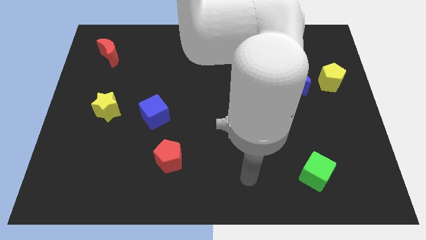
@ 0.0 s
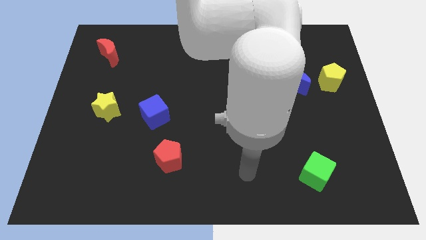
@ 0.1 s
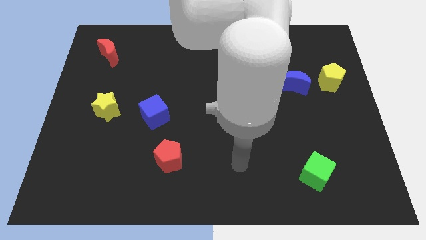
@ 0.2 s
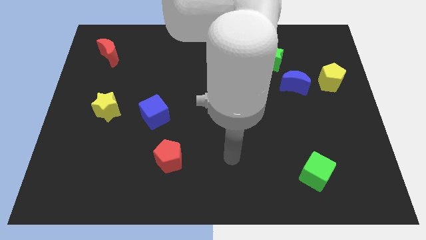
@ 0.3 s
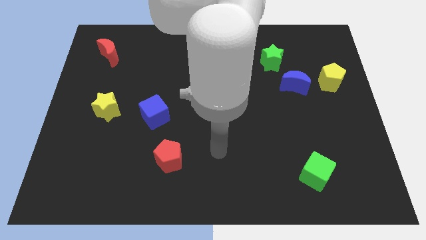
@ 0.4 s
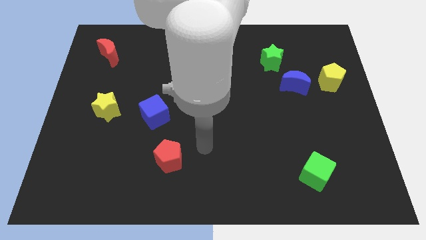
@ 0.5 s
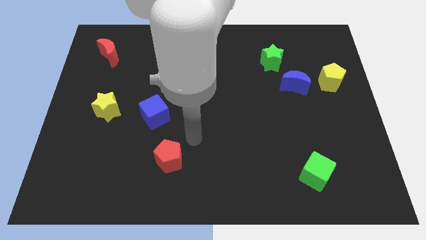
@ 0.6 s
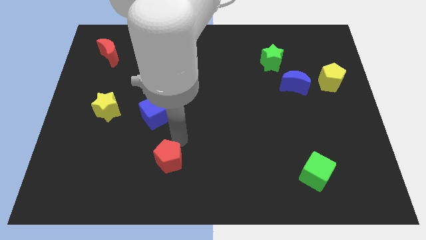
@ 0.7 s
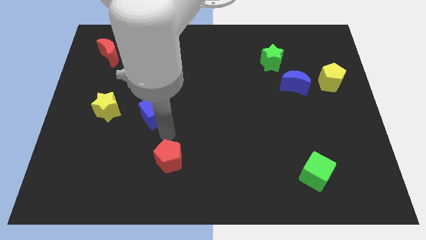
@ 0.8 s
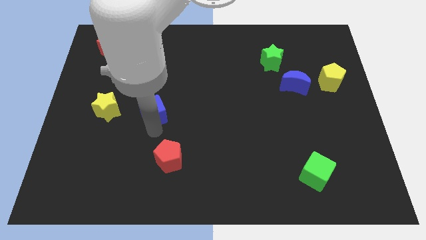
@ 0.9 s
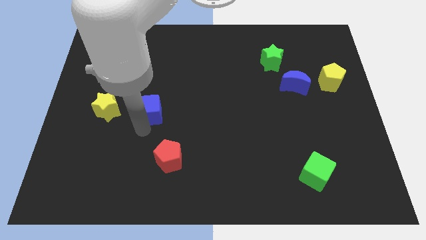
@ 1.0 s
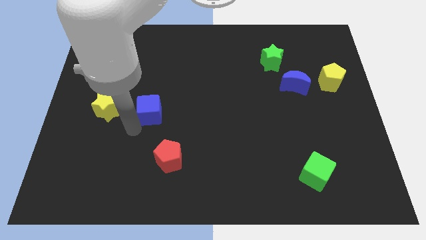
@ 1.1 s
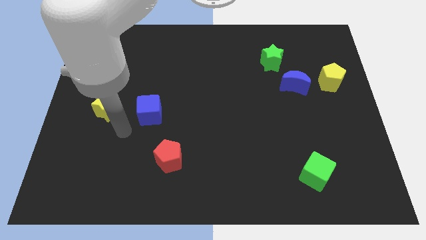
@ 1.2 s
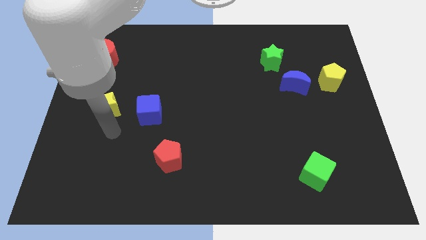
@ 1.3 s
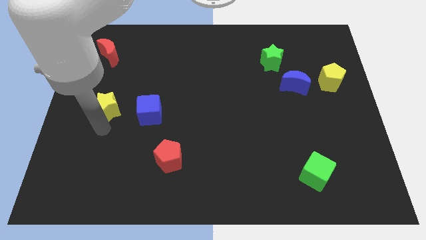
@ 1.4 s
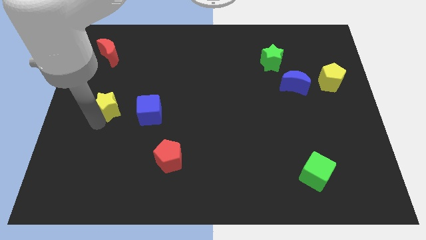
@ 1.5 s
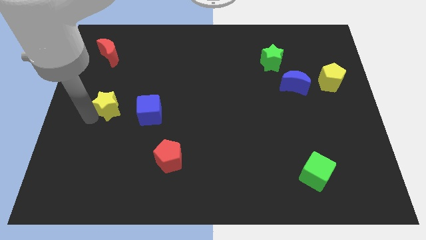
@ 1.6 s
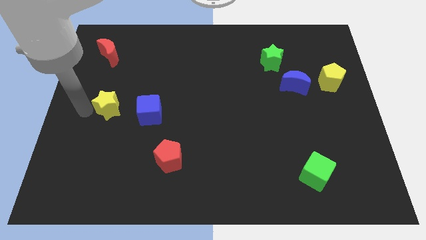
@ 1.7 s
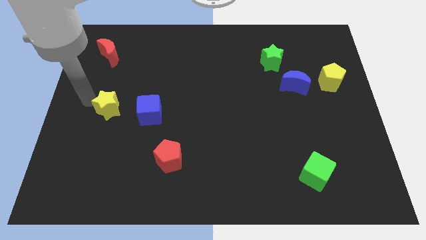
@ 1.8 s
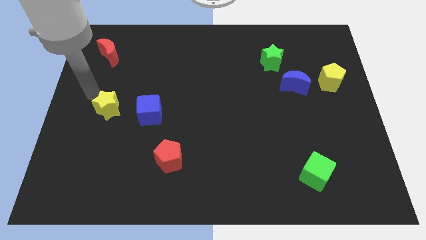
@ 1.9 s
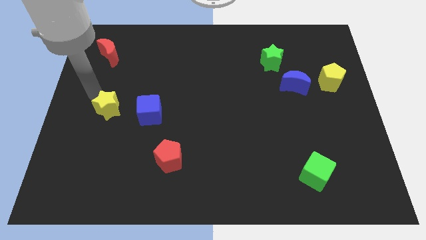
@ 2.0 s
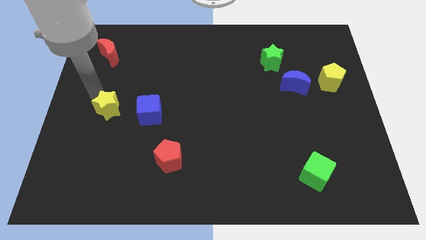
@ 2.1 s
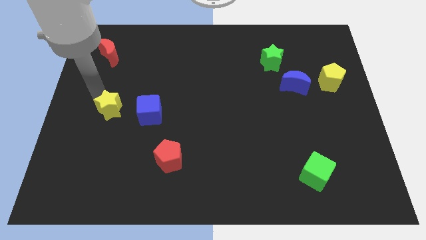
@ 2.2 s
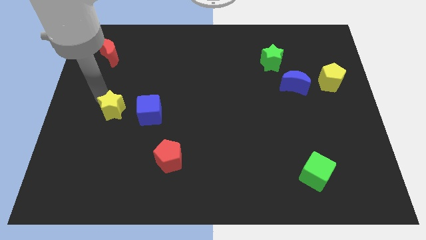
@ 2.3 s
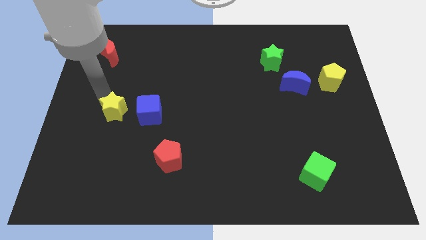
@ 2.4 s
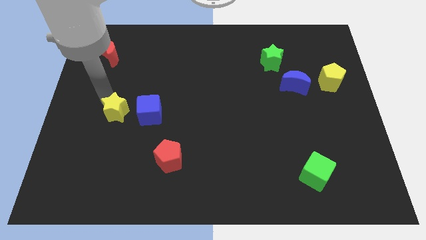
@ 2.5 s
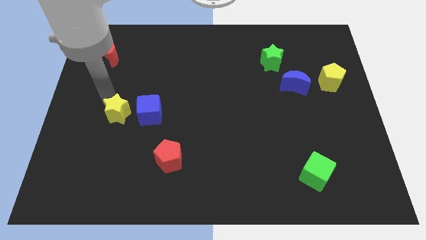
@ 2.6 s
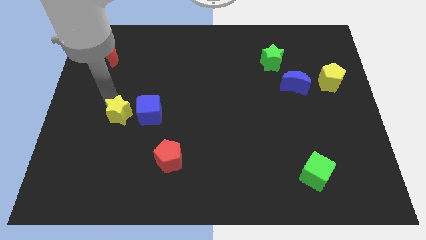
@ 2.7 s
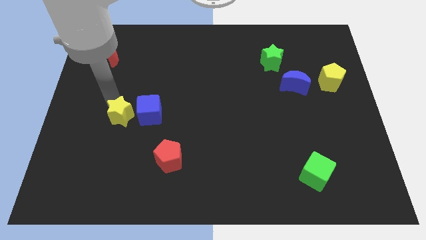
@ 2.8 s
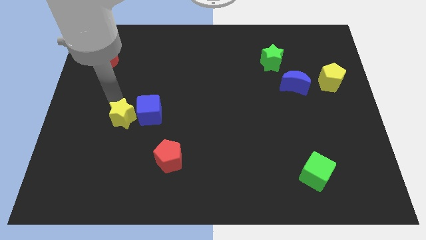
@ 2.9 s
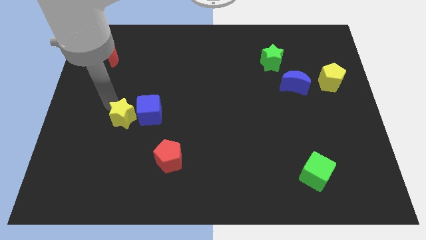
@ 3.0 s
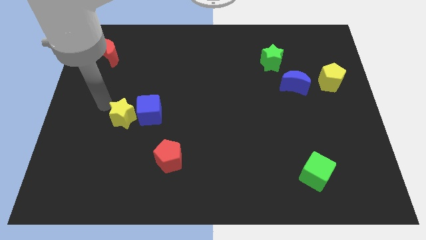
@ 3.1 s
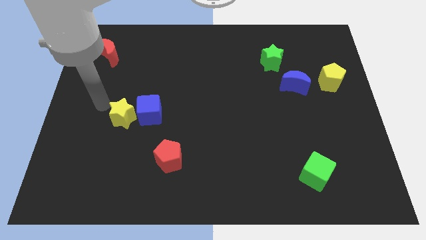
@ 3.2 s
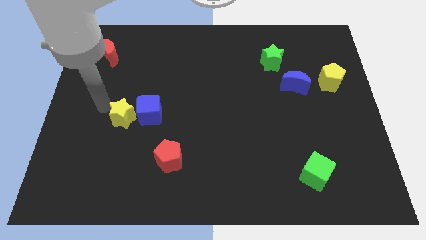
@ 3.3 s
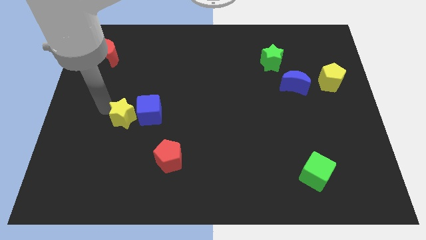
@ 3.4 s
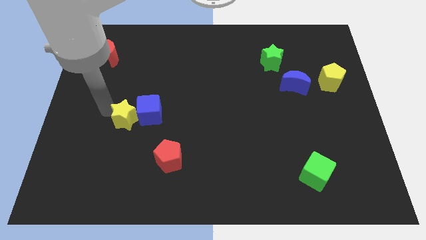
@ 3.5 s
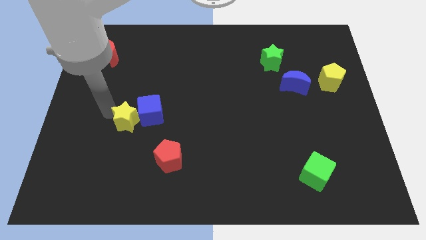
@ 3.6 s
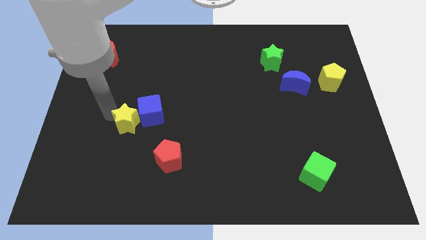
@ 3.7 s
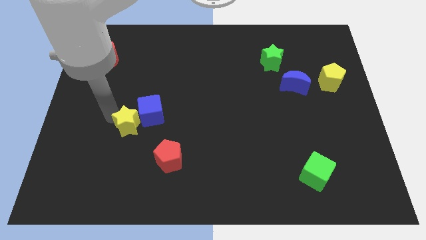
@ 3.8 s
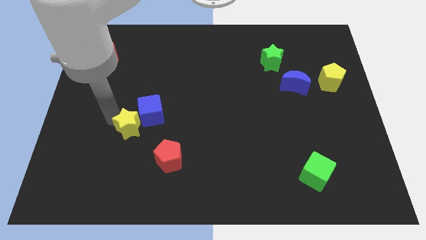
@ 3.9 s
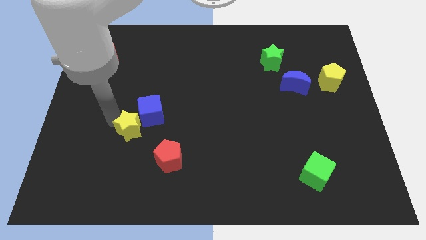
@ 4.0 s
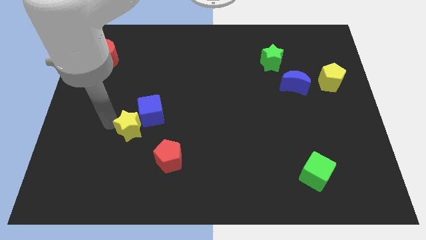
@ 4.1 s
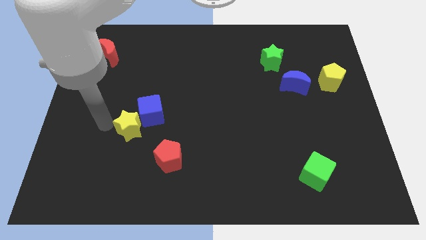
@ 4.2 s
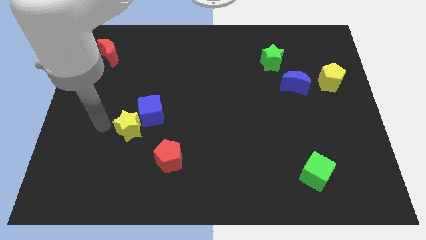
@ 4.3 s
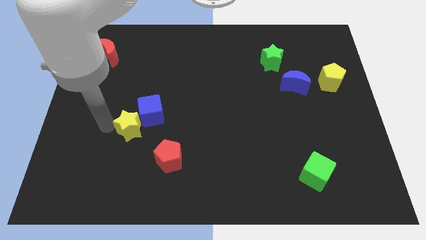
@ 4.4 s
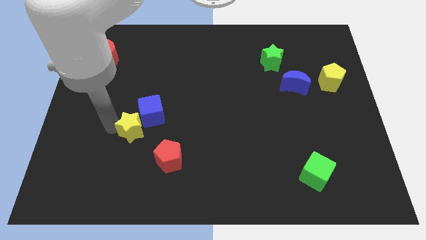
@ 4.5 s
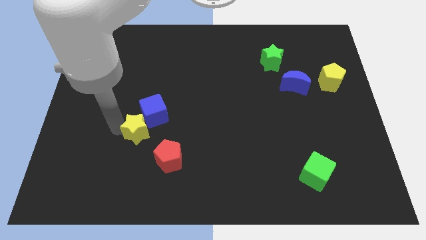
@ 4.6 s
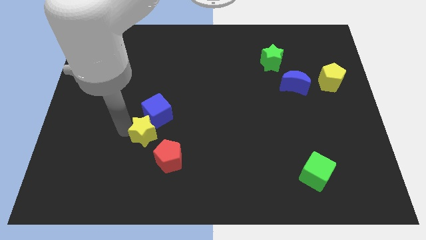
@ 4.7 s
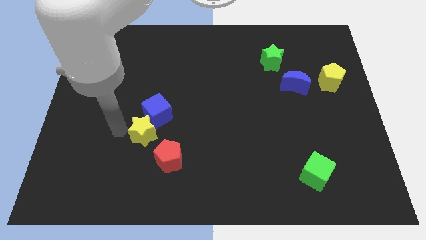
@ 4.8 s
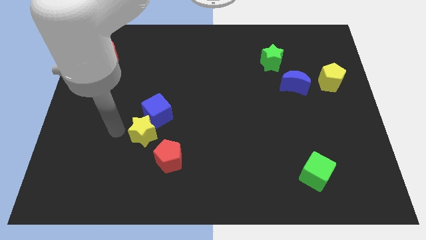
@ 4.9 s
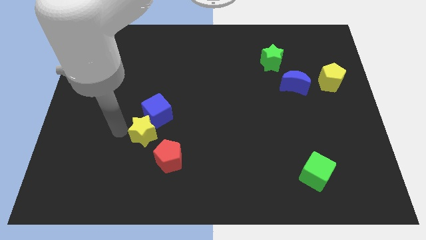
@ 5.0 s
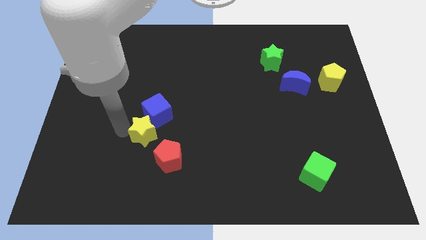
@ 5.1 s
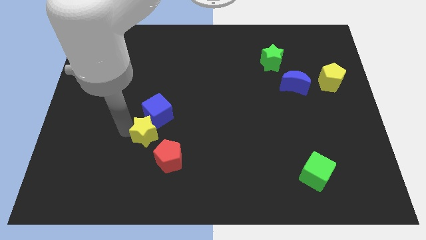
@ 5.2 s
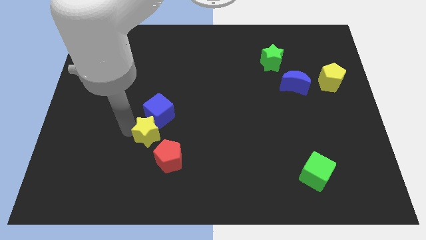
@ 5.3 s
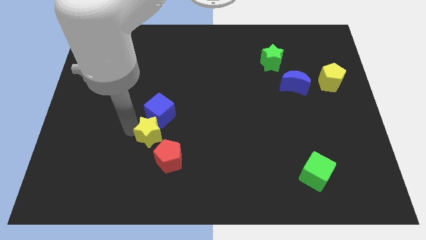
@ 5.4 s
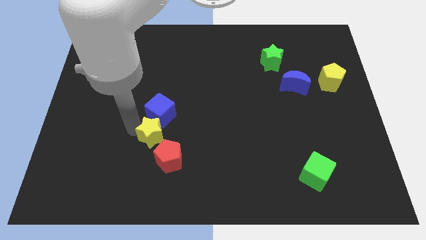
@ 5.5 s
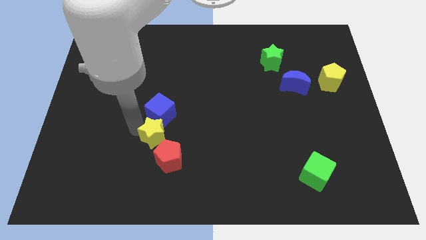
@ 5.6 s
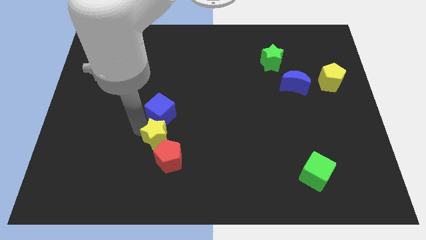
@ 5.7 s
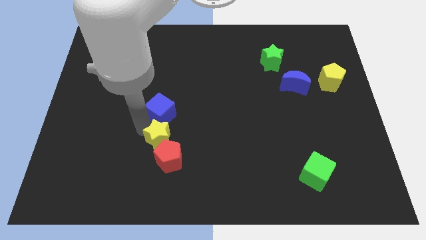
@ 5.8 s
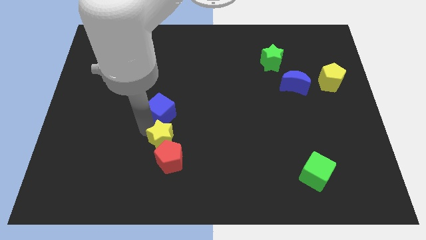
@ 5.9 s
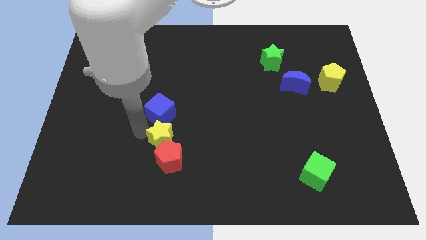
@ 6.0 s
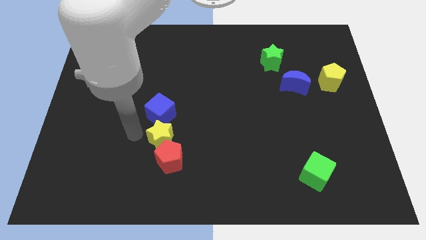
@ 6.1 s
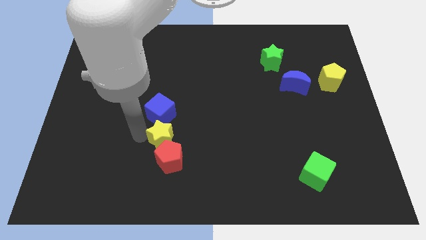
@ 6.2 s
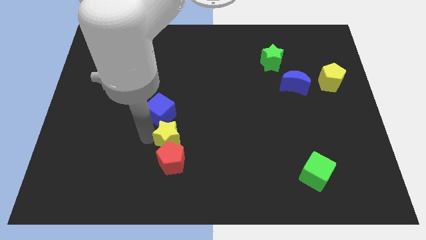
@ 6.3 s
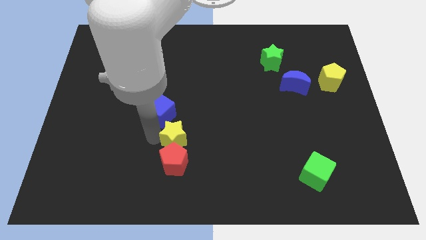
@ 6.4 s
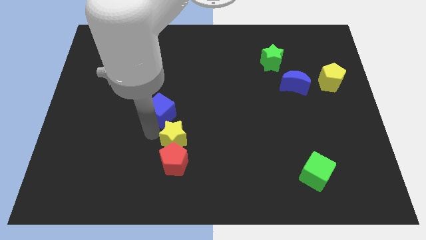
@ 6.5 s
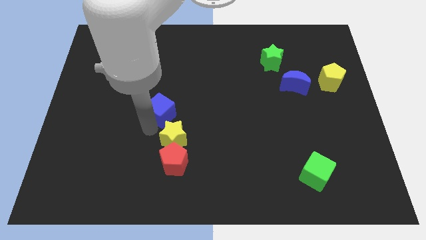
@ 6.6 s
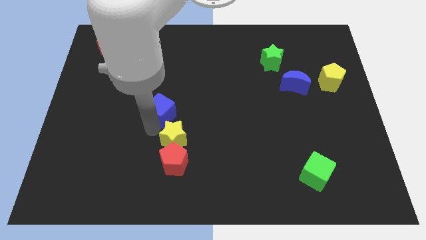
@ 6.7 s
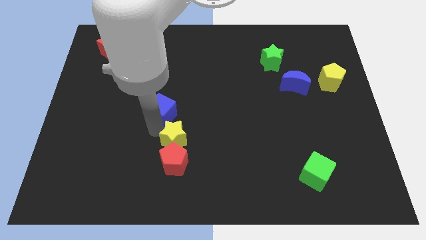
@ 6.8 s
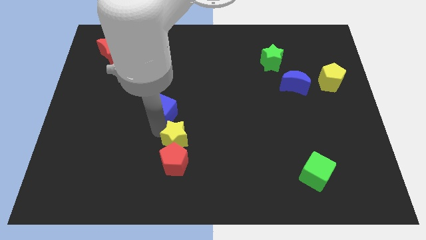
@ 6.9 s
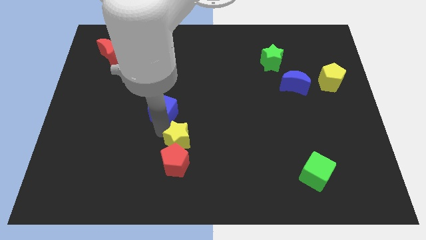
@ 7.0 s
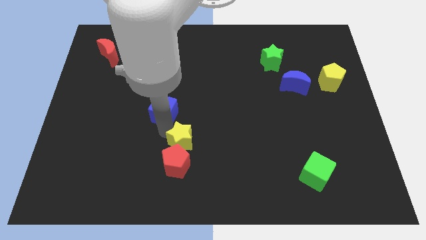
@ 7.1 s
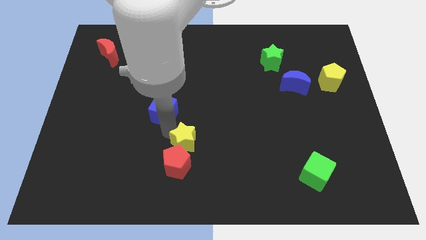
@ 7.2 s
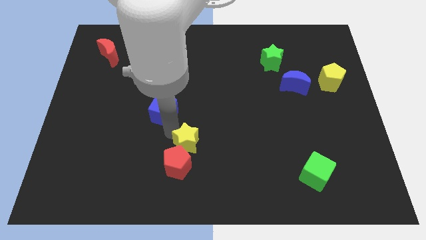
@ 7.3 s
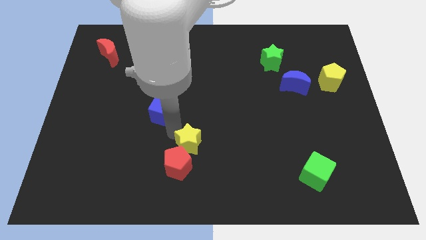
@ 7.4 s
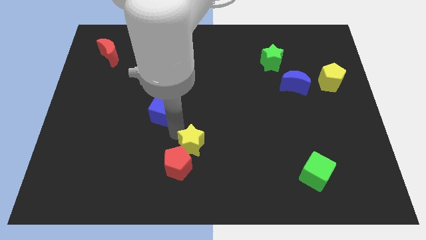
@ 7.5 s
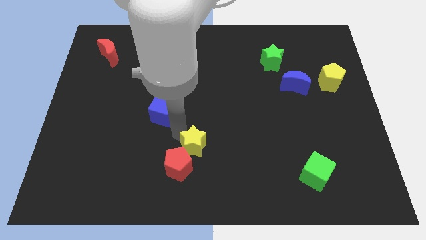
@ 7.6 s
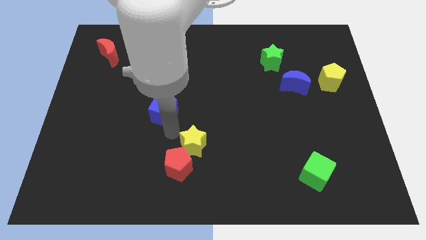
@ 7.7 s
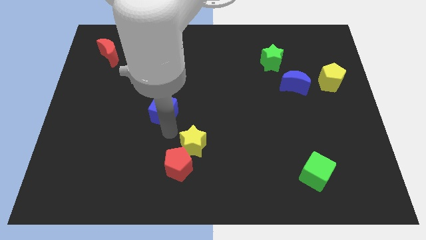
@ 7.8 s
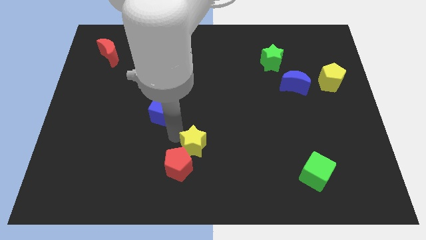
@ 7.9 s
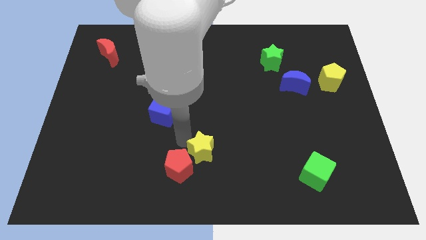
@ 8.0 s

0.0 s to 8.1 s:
move the yellow star to the right of the red pentagon
